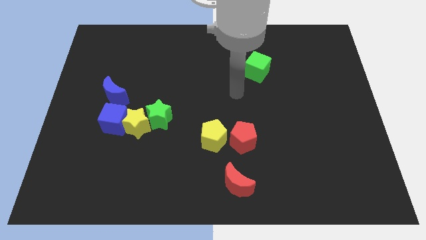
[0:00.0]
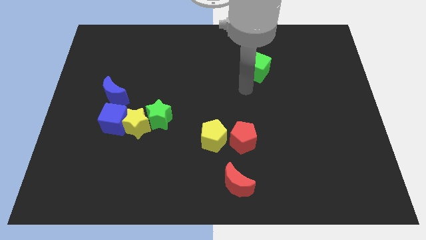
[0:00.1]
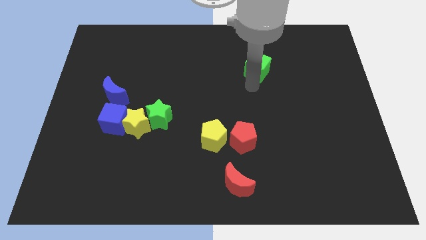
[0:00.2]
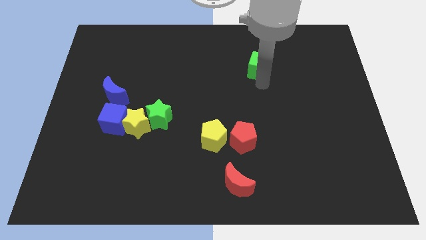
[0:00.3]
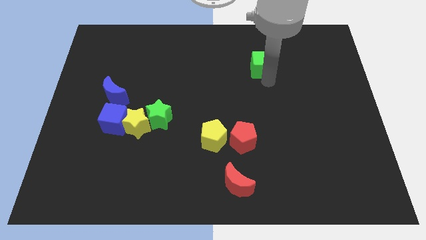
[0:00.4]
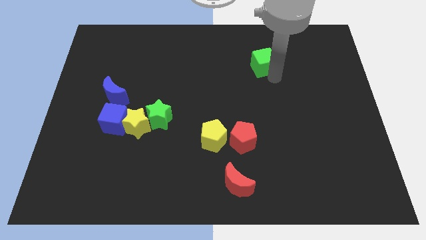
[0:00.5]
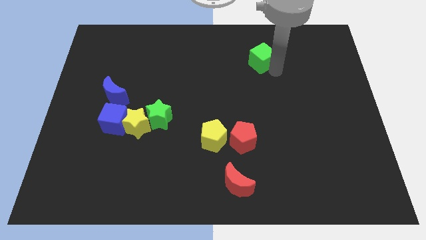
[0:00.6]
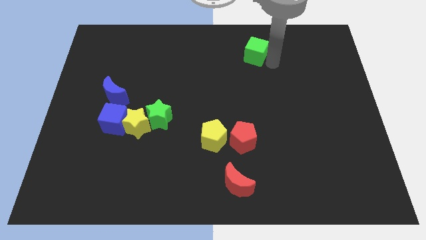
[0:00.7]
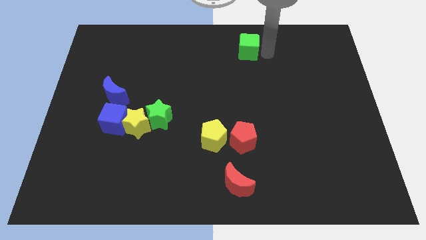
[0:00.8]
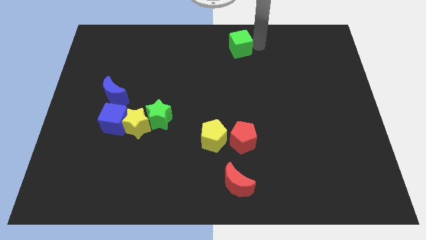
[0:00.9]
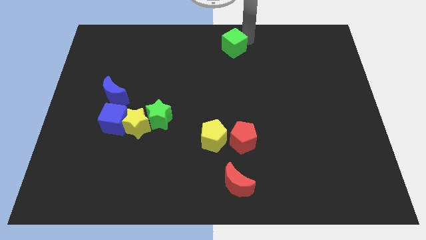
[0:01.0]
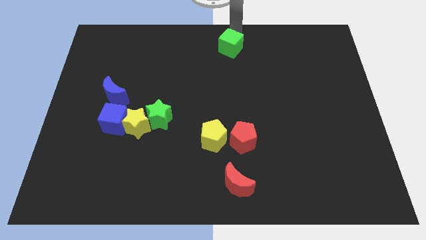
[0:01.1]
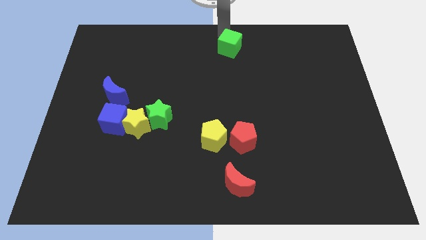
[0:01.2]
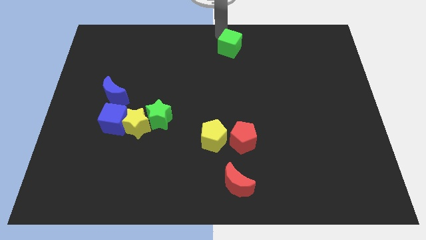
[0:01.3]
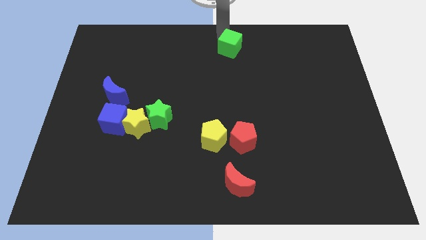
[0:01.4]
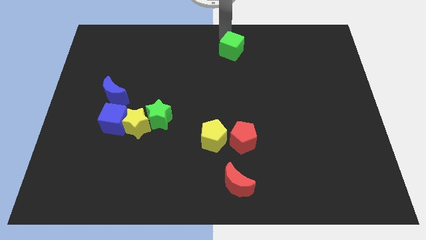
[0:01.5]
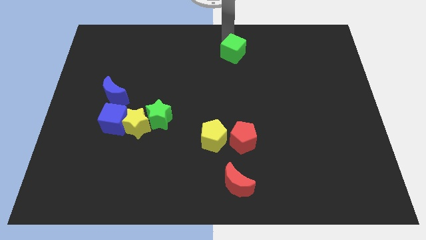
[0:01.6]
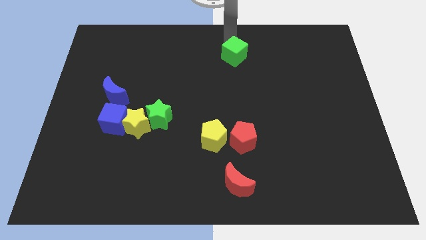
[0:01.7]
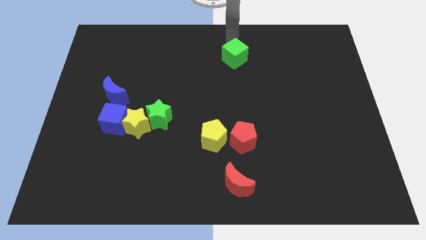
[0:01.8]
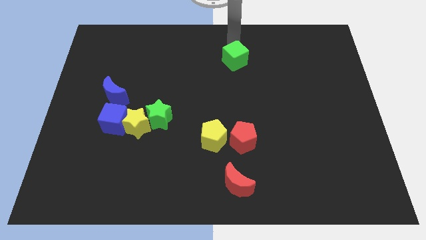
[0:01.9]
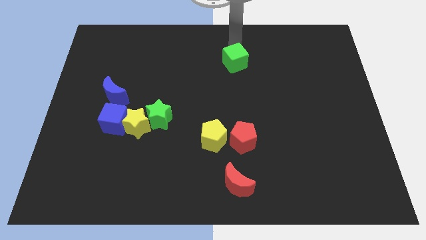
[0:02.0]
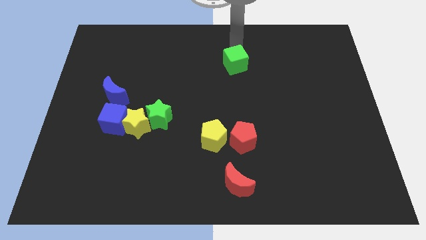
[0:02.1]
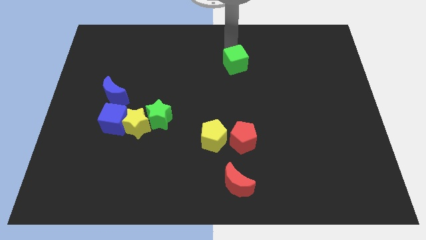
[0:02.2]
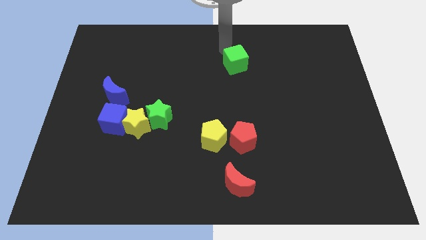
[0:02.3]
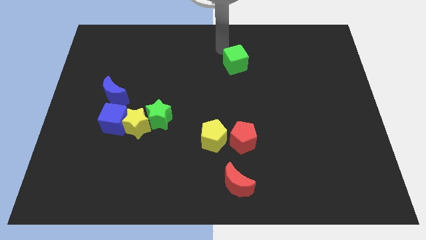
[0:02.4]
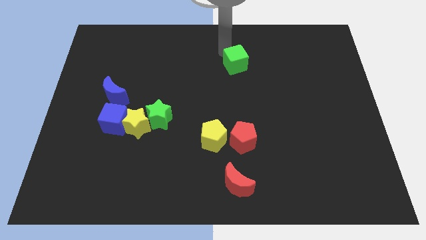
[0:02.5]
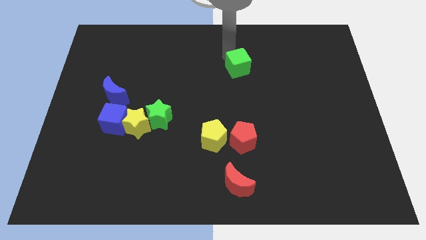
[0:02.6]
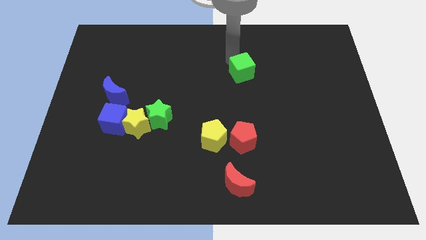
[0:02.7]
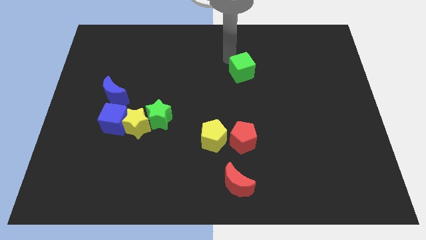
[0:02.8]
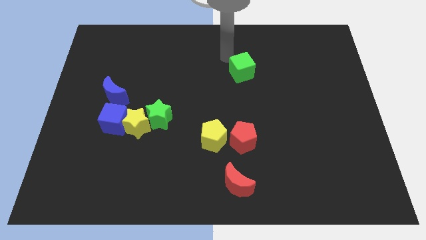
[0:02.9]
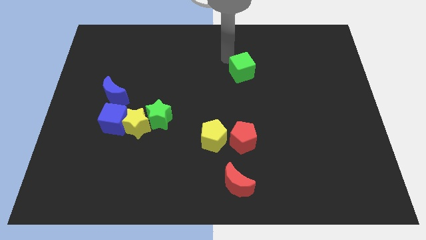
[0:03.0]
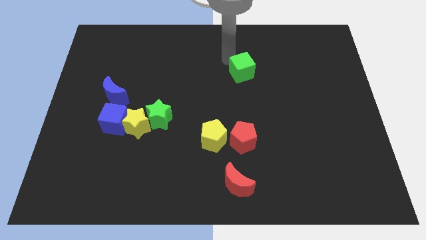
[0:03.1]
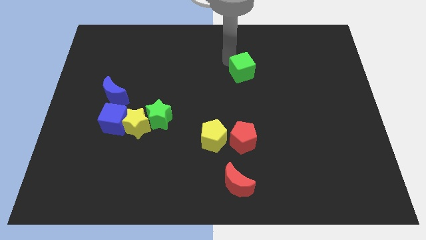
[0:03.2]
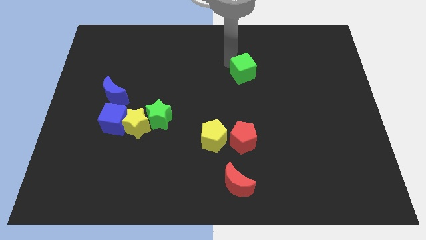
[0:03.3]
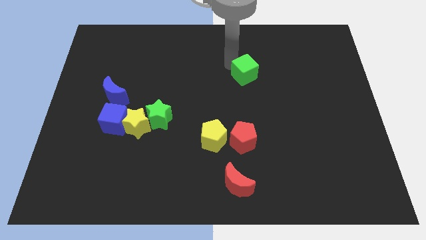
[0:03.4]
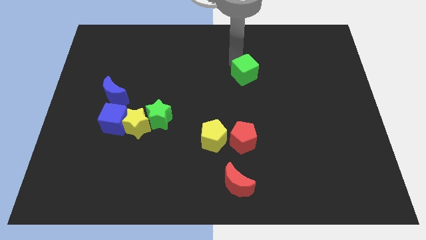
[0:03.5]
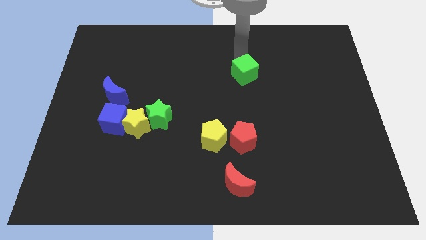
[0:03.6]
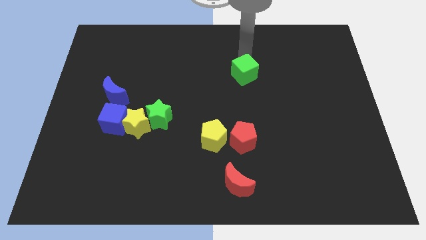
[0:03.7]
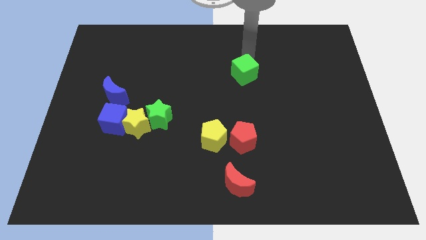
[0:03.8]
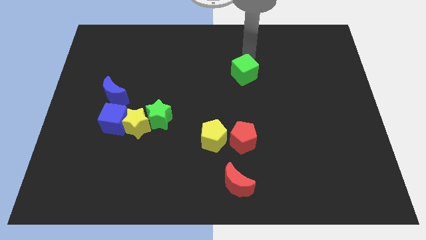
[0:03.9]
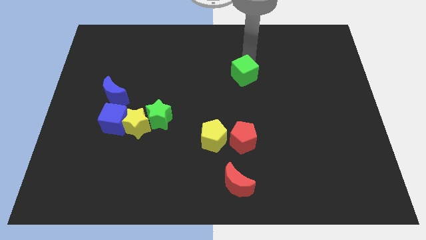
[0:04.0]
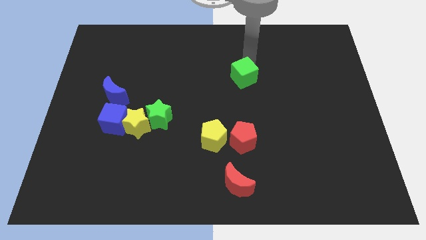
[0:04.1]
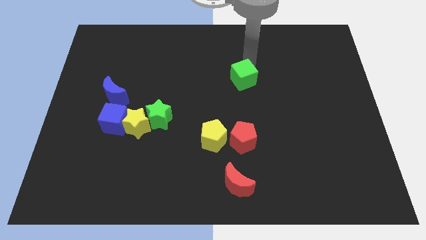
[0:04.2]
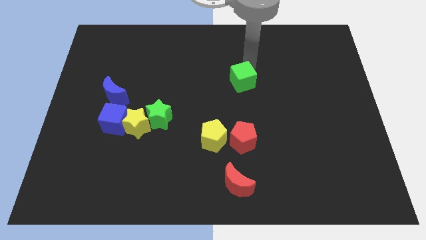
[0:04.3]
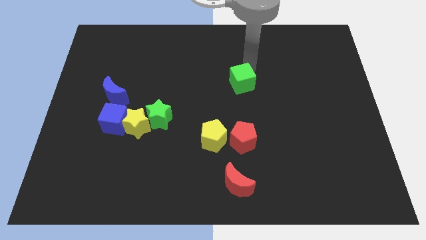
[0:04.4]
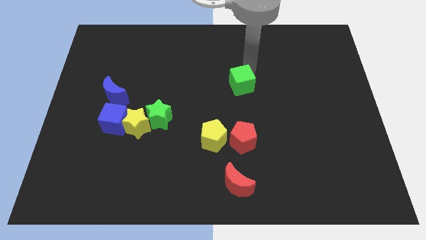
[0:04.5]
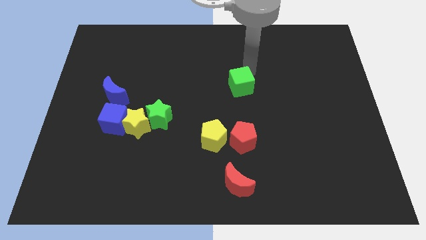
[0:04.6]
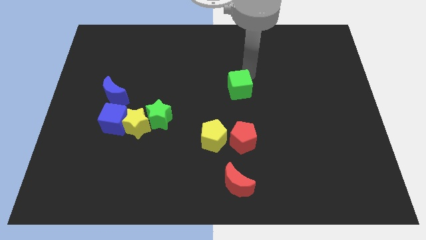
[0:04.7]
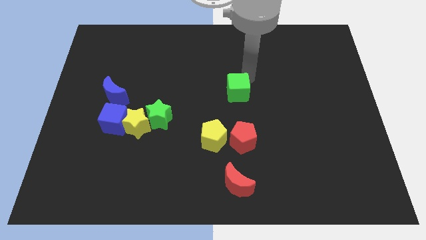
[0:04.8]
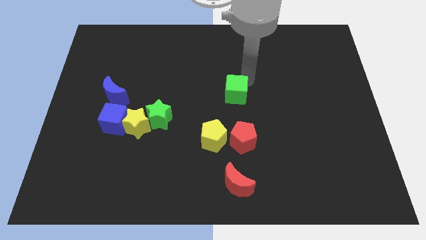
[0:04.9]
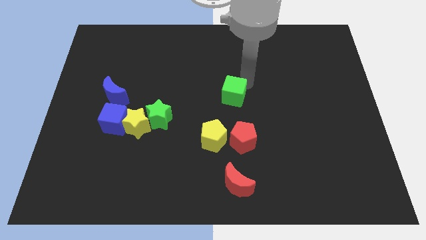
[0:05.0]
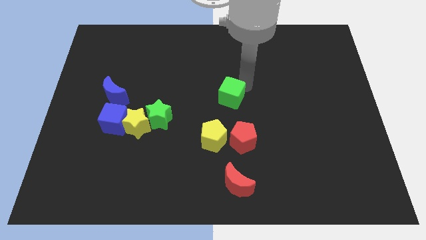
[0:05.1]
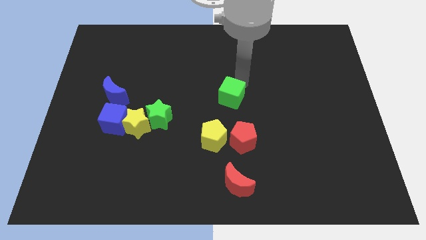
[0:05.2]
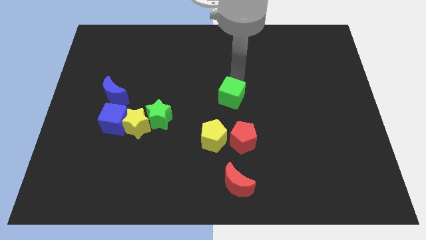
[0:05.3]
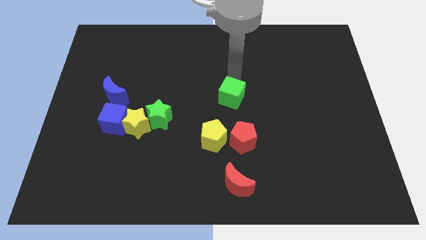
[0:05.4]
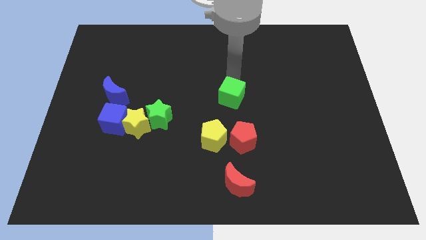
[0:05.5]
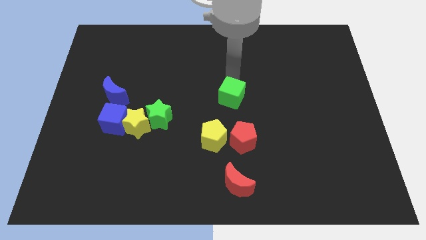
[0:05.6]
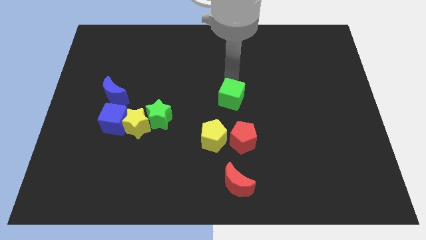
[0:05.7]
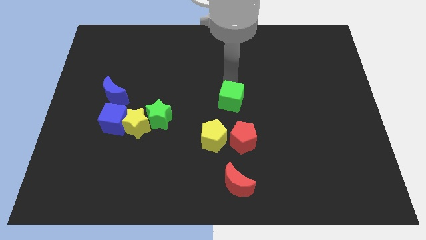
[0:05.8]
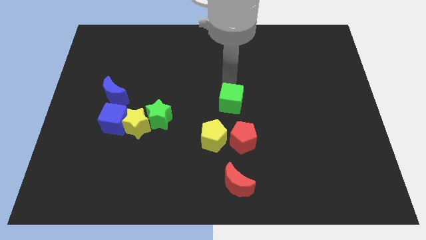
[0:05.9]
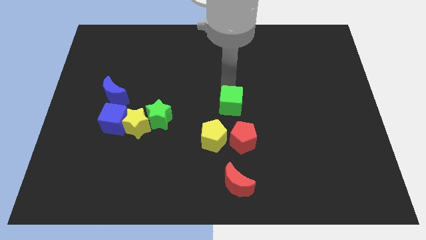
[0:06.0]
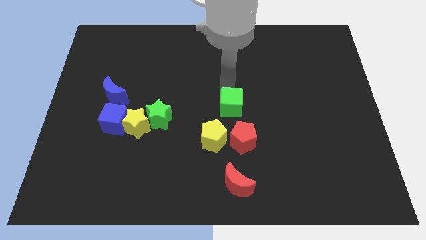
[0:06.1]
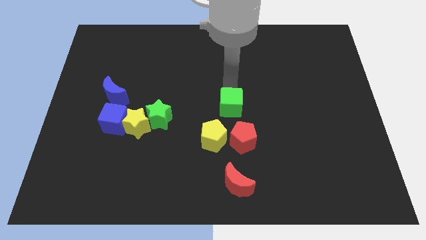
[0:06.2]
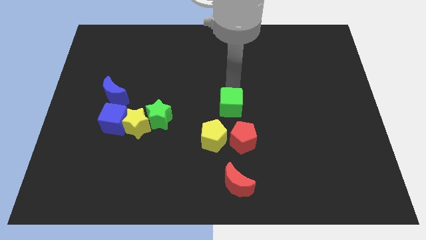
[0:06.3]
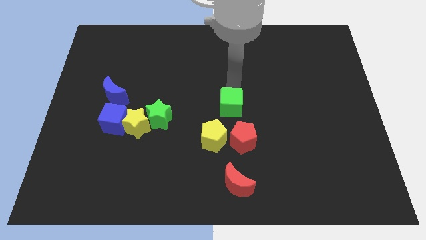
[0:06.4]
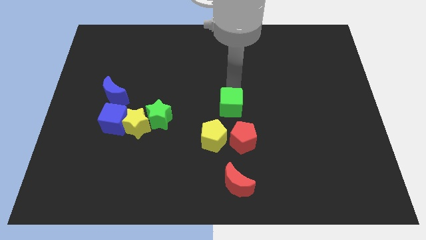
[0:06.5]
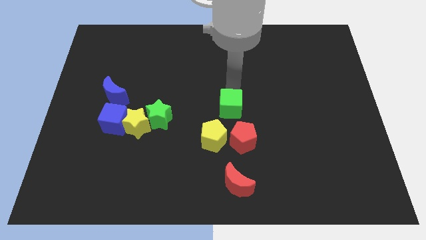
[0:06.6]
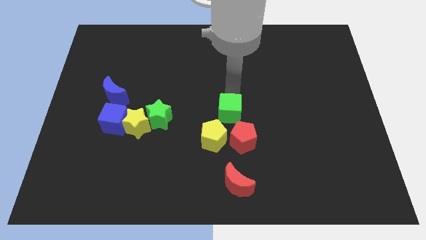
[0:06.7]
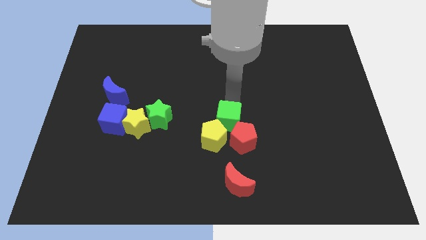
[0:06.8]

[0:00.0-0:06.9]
put the green cube next to the yellow pentagon
